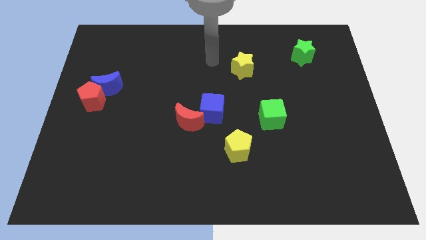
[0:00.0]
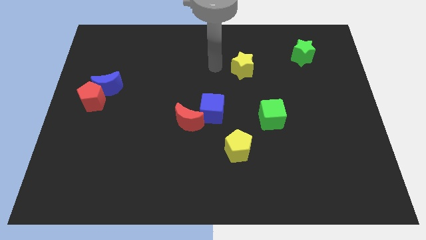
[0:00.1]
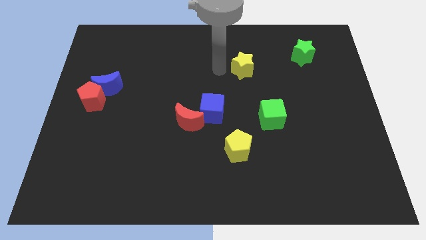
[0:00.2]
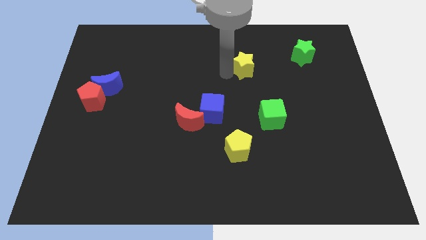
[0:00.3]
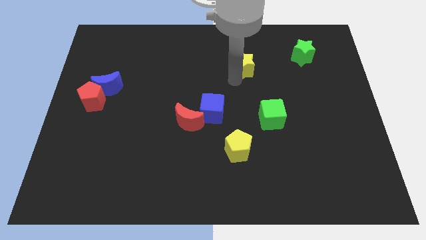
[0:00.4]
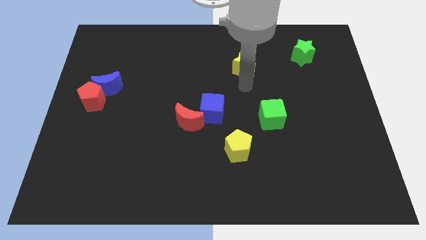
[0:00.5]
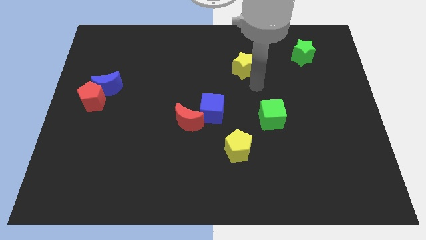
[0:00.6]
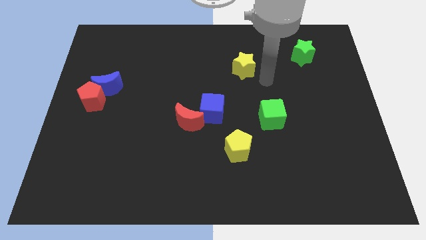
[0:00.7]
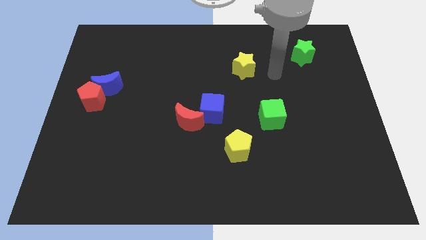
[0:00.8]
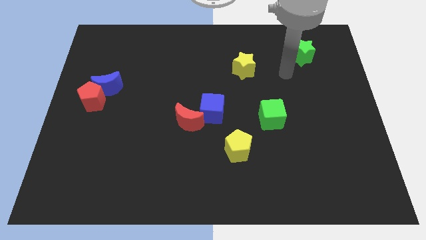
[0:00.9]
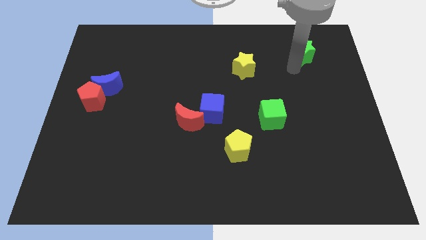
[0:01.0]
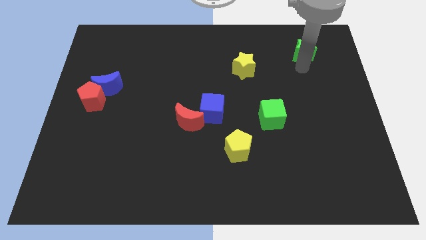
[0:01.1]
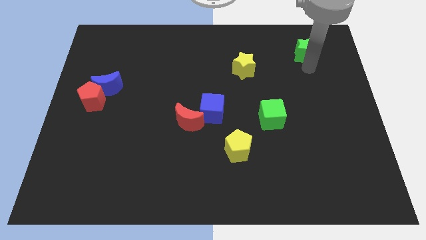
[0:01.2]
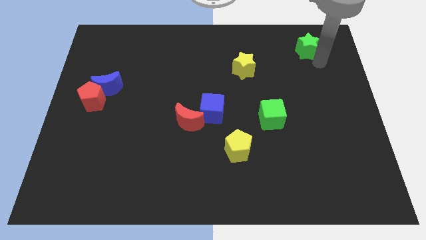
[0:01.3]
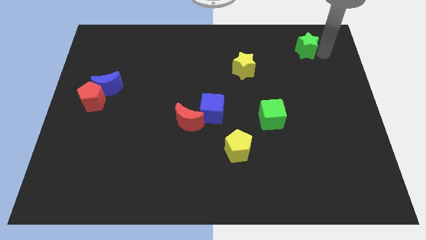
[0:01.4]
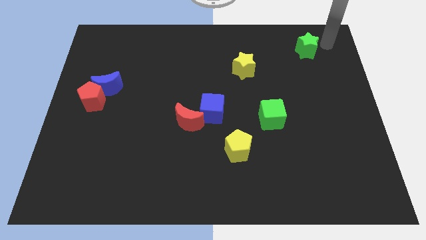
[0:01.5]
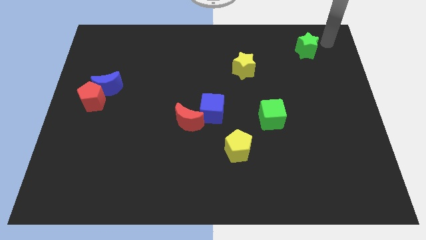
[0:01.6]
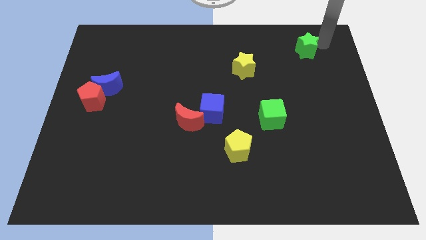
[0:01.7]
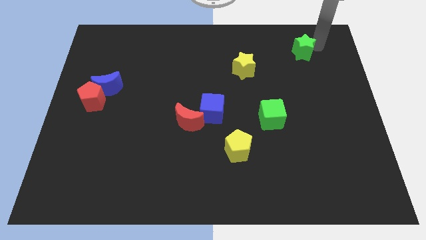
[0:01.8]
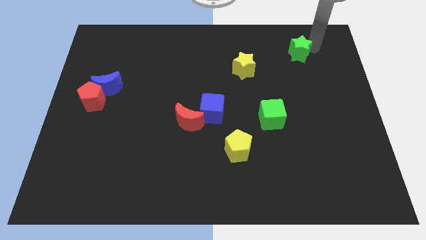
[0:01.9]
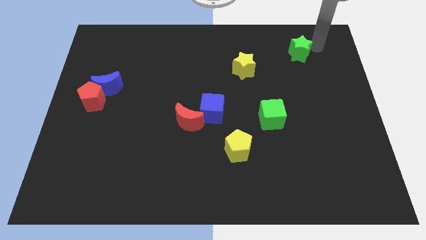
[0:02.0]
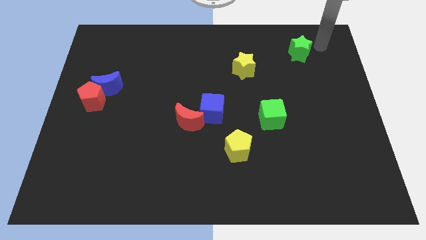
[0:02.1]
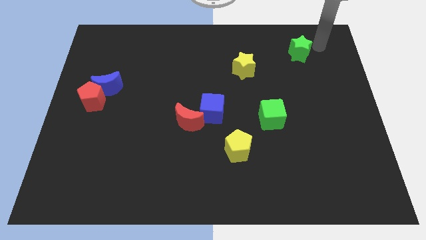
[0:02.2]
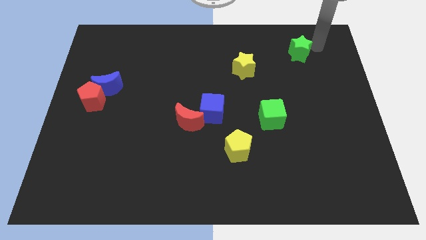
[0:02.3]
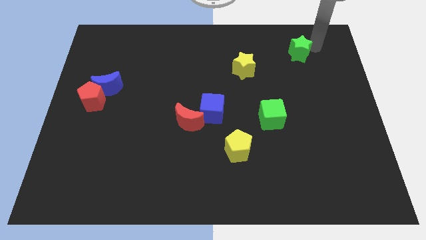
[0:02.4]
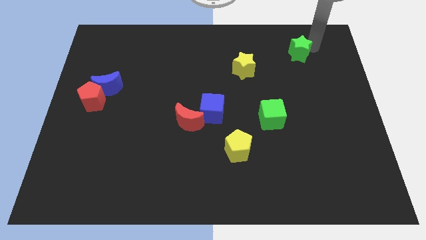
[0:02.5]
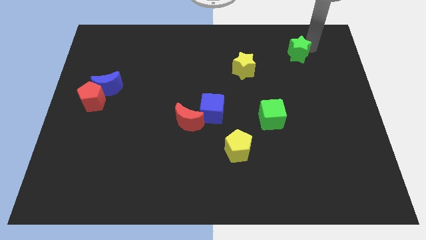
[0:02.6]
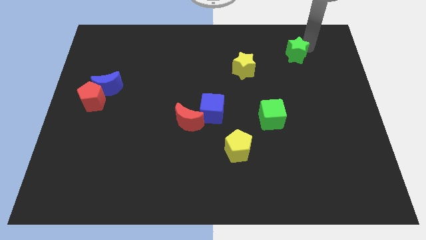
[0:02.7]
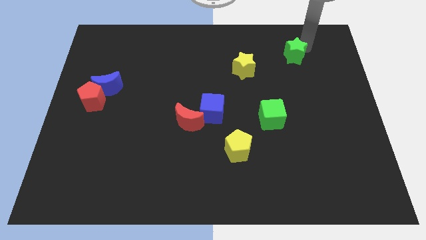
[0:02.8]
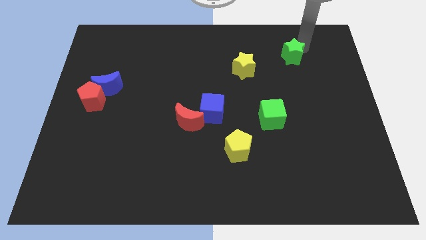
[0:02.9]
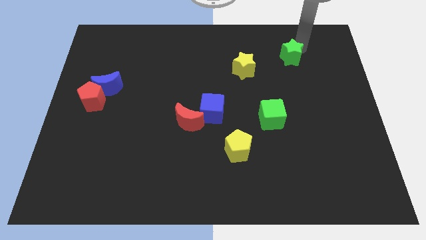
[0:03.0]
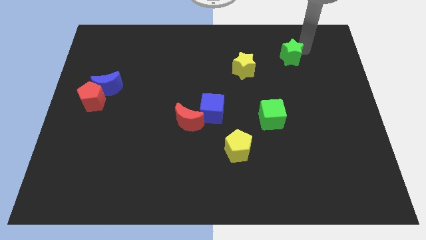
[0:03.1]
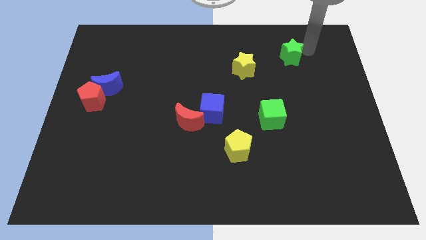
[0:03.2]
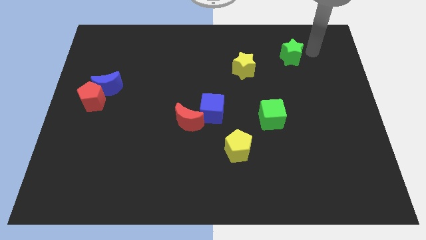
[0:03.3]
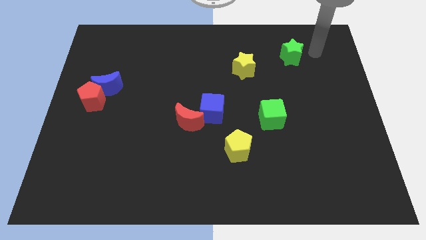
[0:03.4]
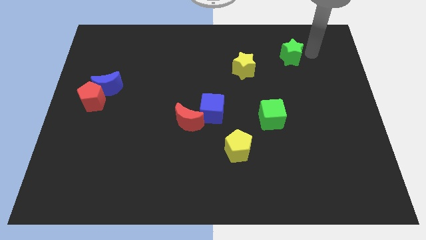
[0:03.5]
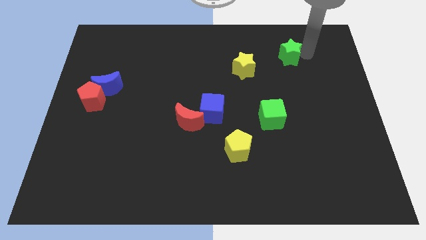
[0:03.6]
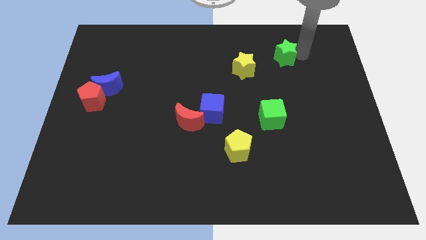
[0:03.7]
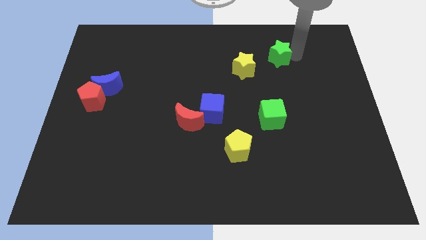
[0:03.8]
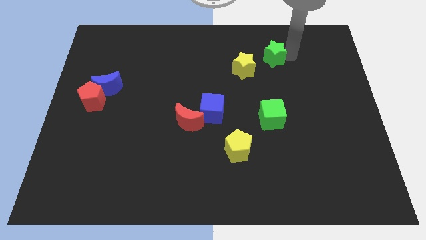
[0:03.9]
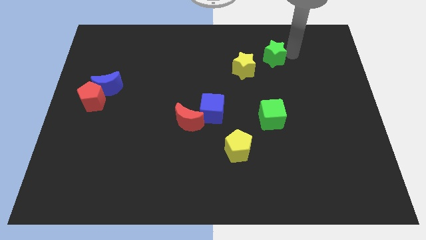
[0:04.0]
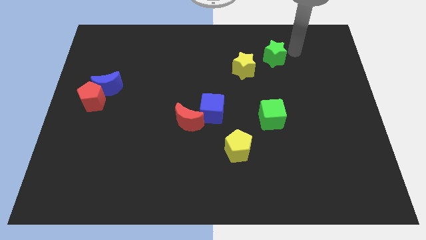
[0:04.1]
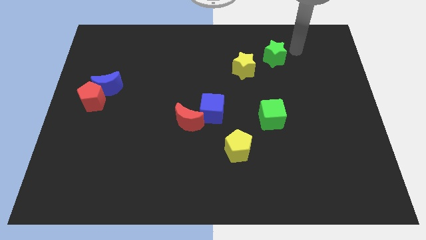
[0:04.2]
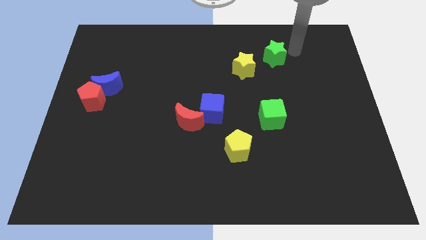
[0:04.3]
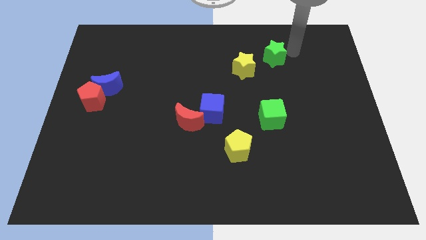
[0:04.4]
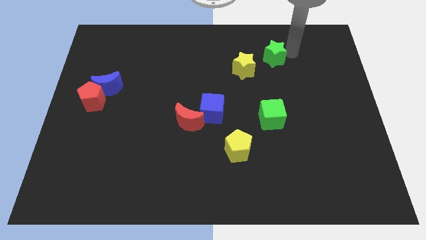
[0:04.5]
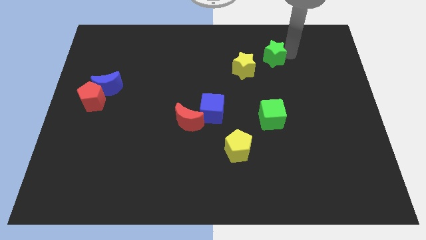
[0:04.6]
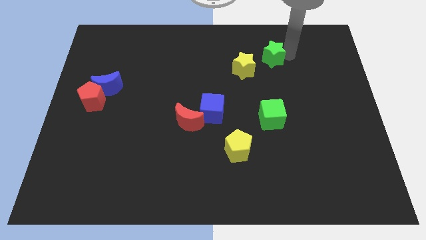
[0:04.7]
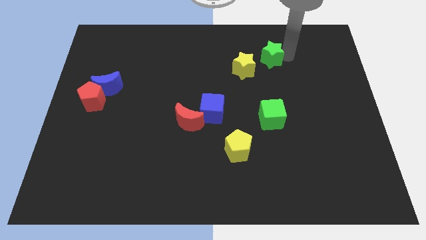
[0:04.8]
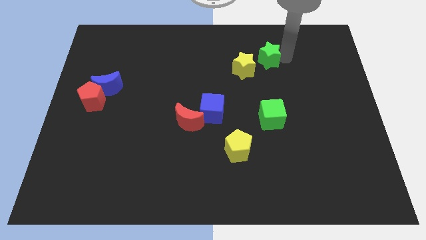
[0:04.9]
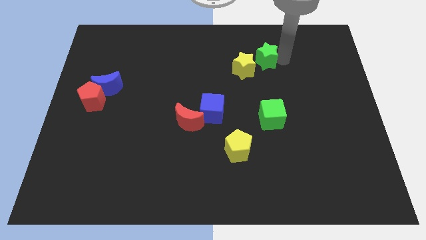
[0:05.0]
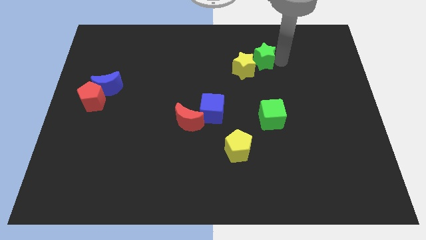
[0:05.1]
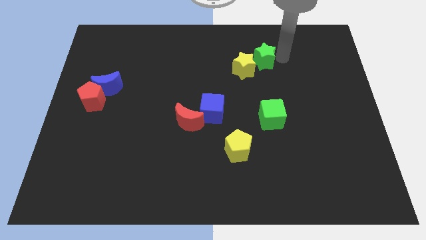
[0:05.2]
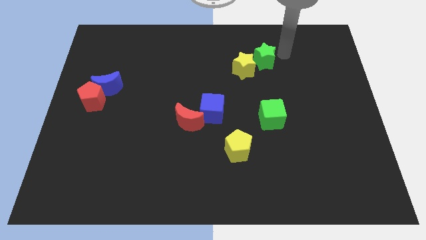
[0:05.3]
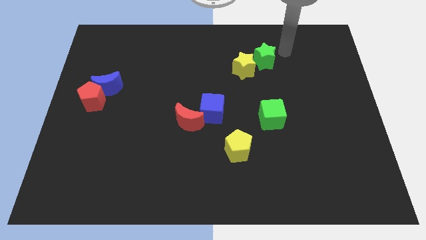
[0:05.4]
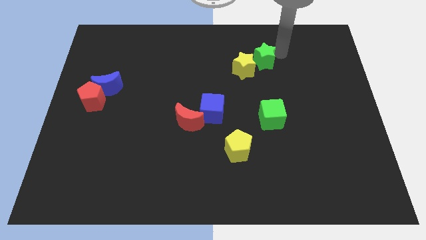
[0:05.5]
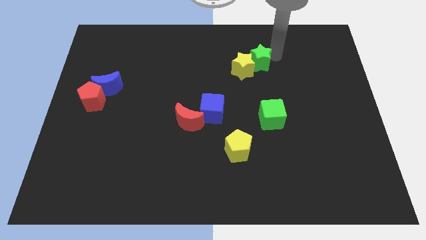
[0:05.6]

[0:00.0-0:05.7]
put the green star next to the yellow star
